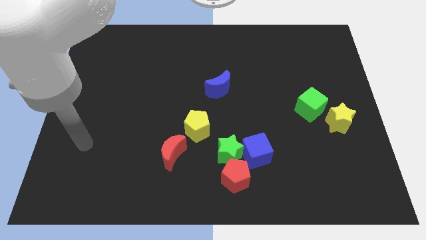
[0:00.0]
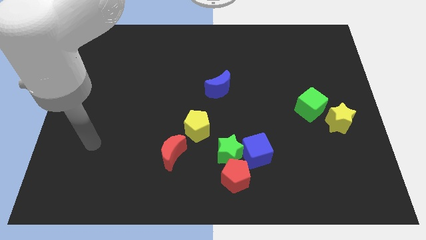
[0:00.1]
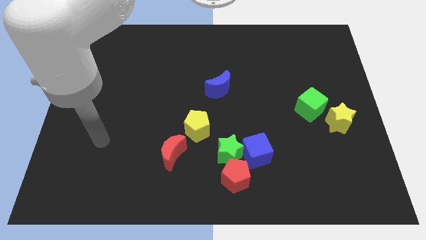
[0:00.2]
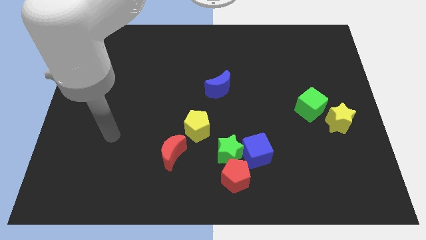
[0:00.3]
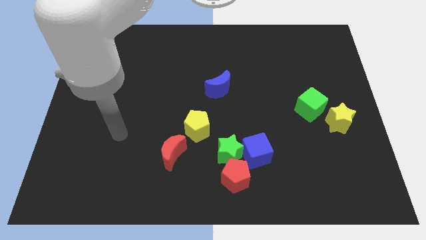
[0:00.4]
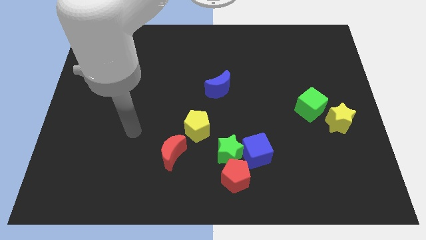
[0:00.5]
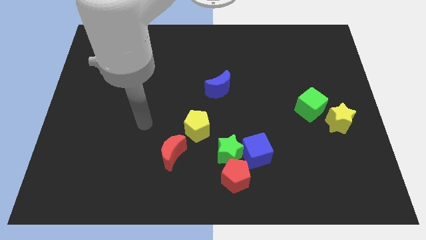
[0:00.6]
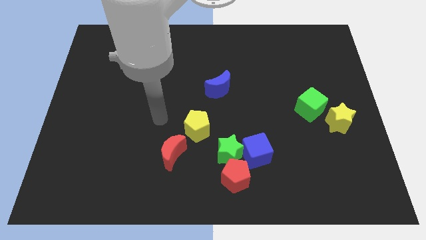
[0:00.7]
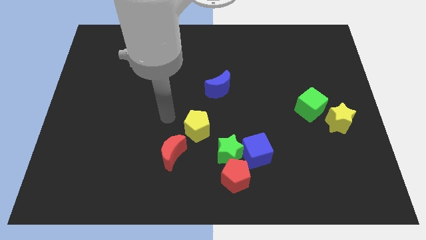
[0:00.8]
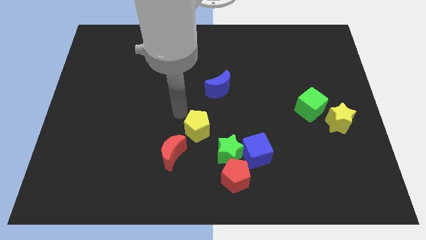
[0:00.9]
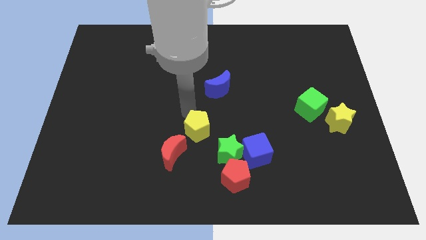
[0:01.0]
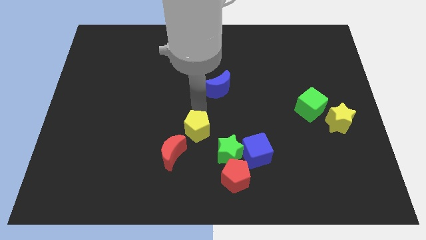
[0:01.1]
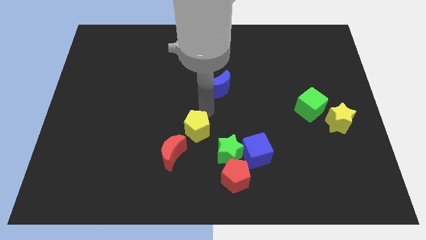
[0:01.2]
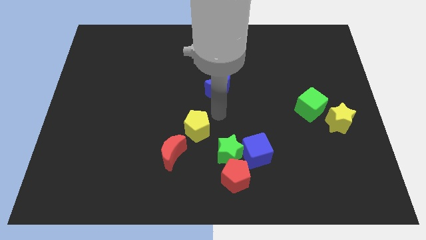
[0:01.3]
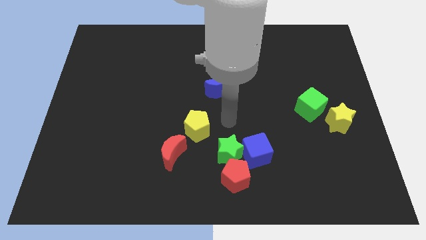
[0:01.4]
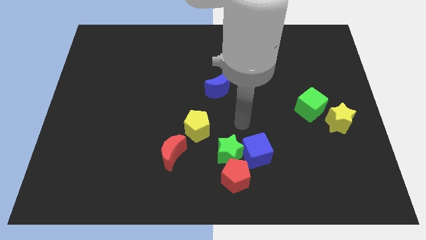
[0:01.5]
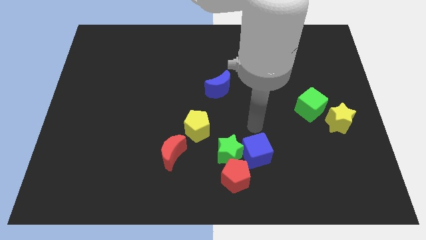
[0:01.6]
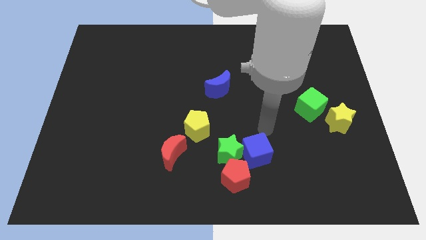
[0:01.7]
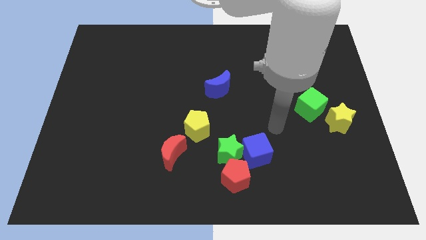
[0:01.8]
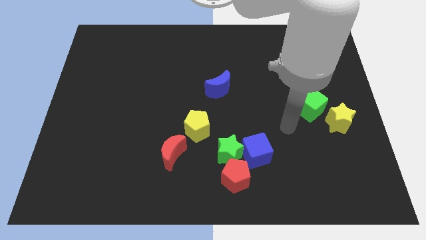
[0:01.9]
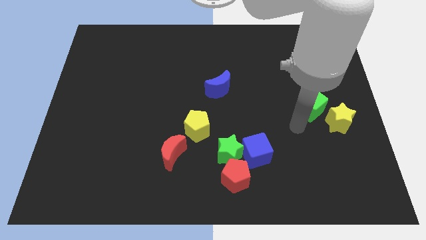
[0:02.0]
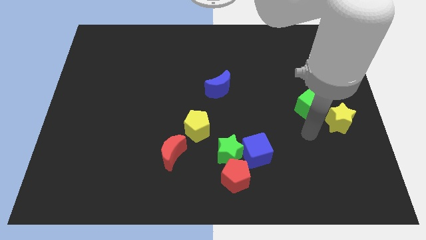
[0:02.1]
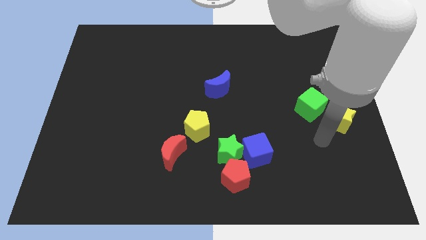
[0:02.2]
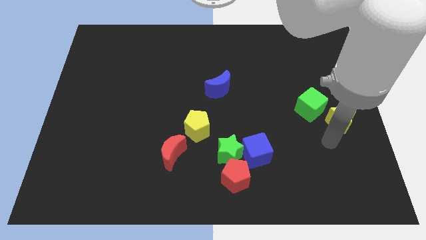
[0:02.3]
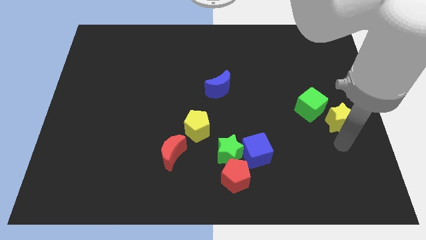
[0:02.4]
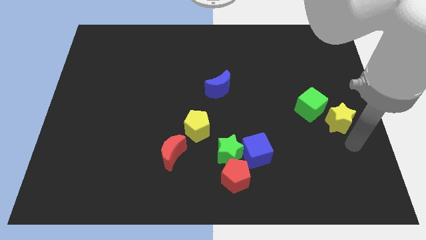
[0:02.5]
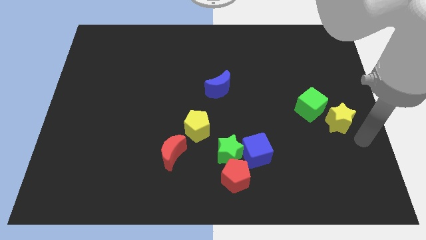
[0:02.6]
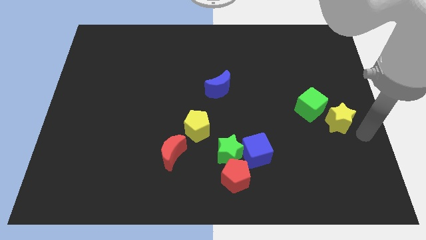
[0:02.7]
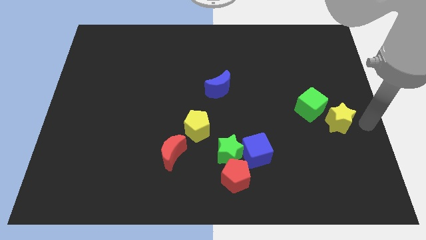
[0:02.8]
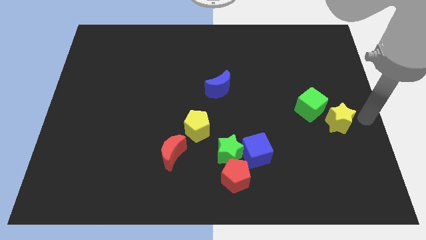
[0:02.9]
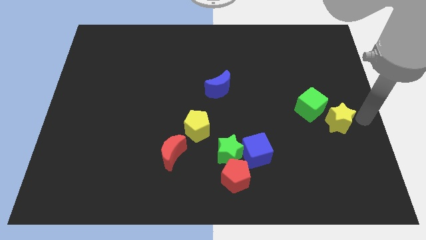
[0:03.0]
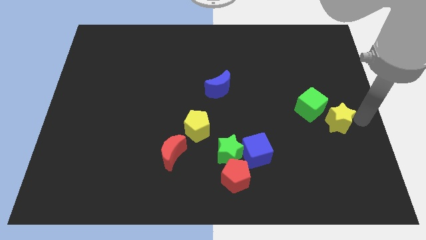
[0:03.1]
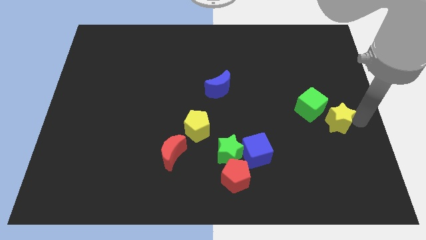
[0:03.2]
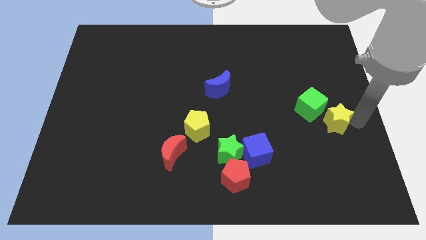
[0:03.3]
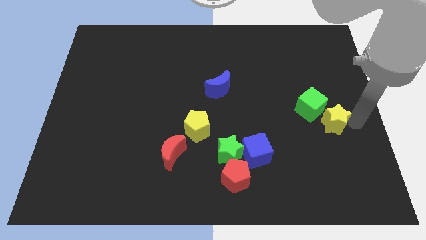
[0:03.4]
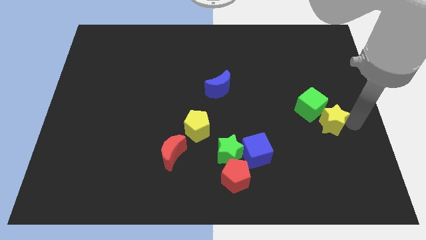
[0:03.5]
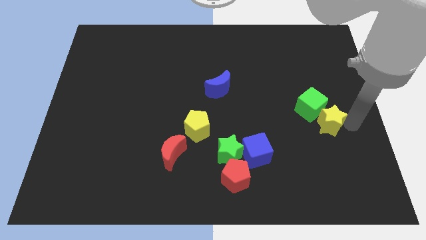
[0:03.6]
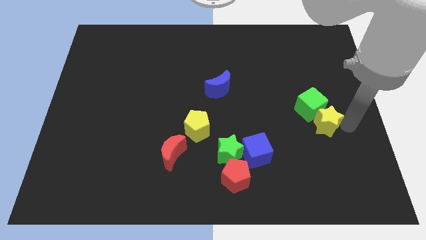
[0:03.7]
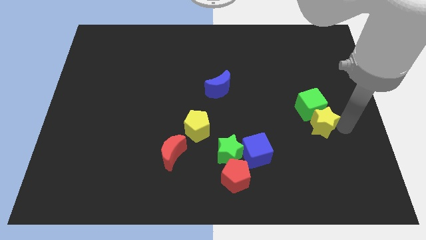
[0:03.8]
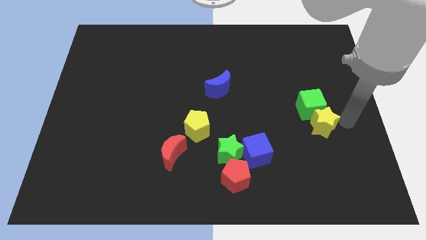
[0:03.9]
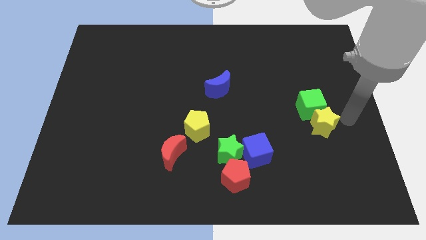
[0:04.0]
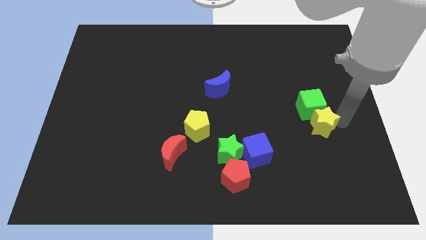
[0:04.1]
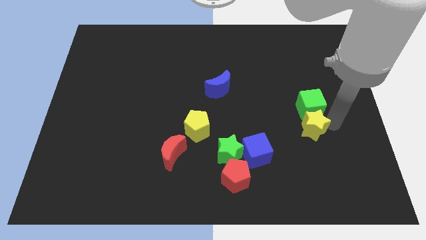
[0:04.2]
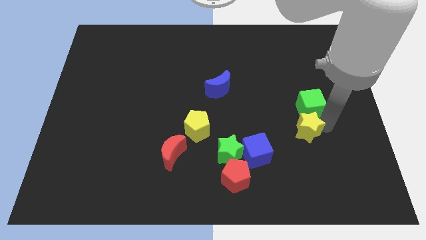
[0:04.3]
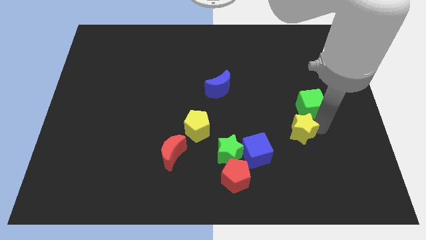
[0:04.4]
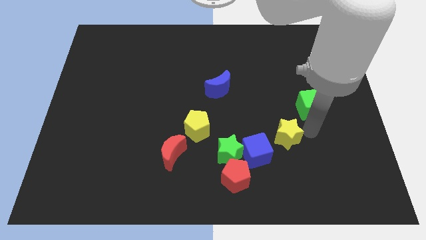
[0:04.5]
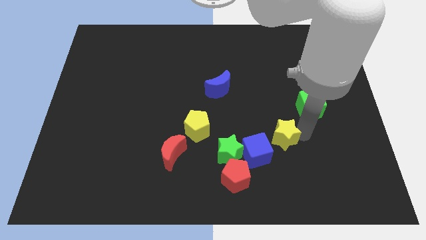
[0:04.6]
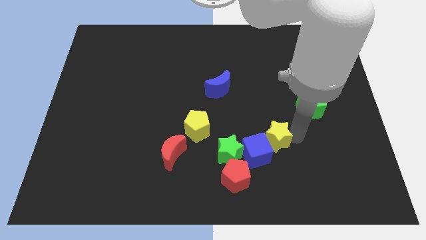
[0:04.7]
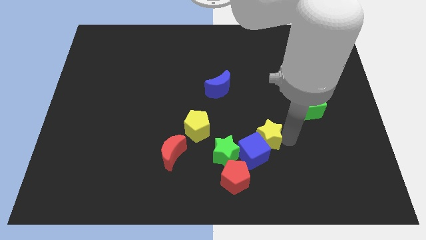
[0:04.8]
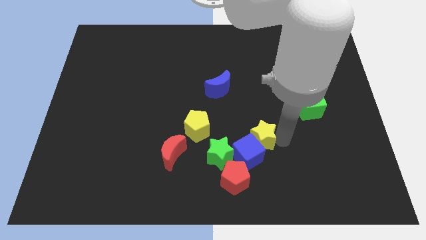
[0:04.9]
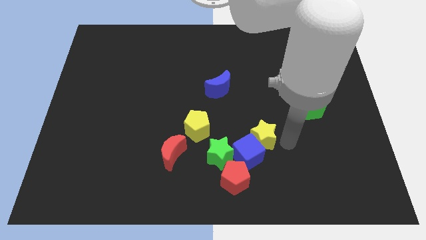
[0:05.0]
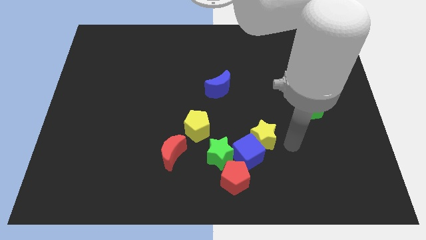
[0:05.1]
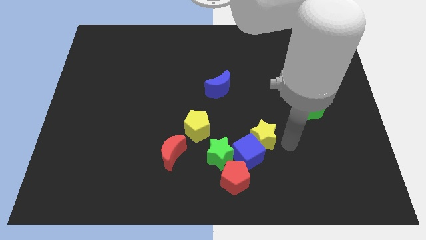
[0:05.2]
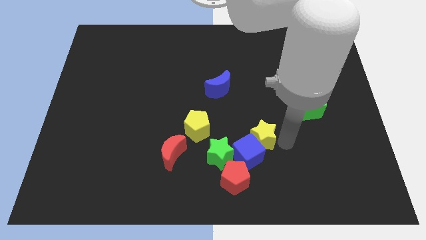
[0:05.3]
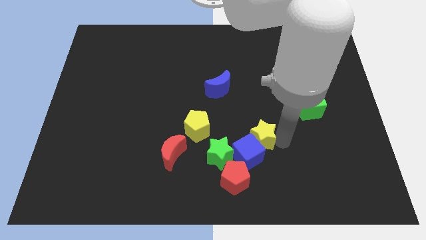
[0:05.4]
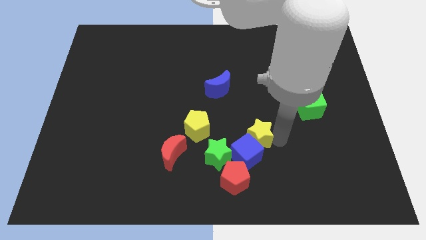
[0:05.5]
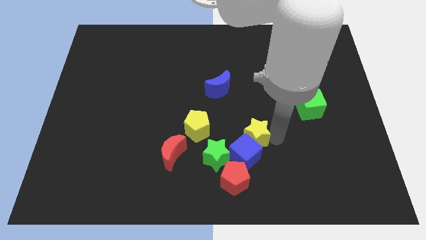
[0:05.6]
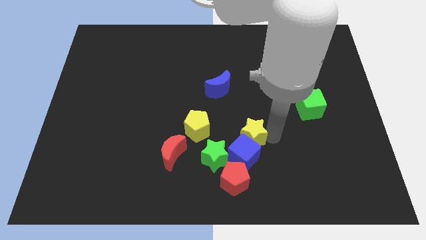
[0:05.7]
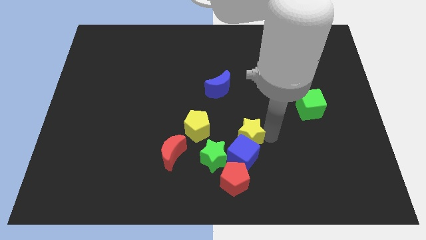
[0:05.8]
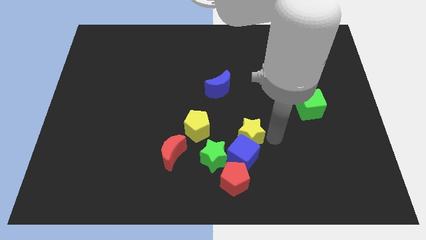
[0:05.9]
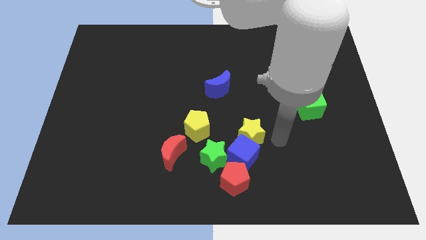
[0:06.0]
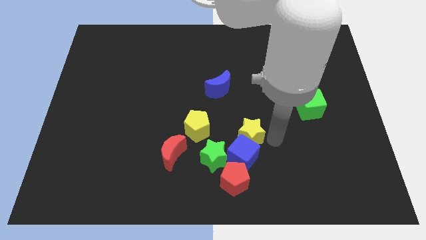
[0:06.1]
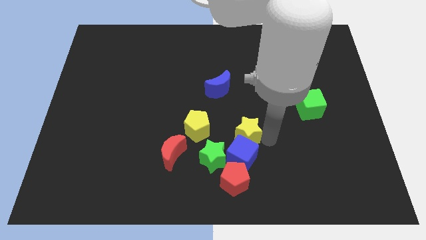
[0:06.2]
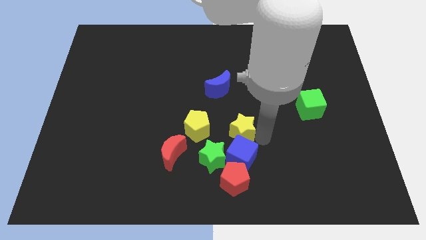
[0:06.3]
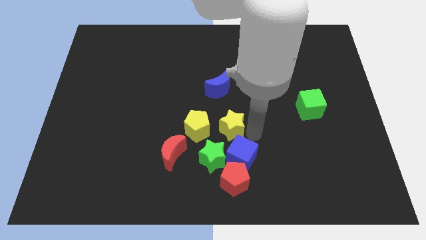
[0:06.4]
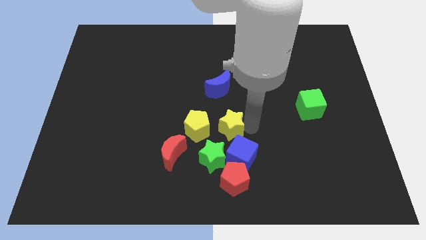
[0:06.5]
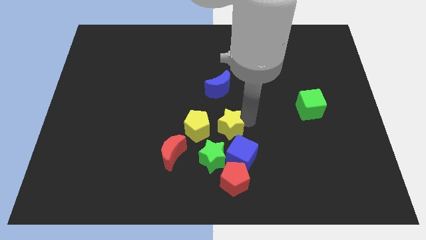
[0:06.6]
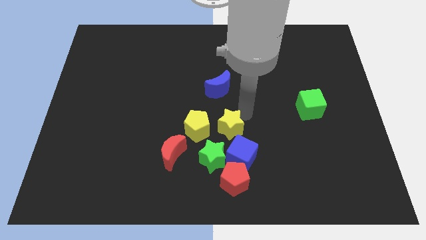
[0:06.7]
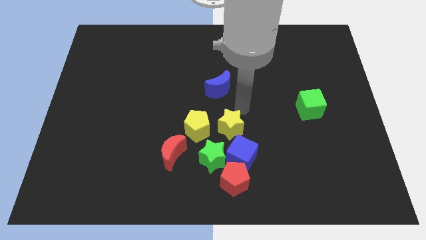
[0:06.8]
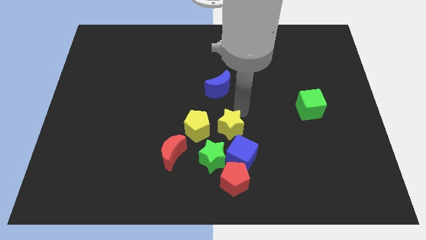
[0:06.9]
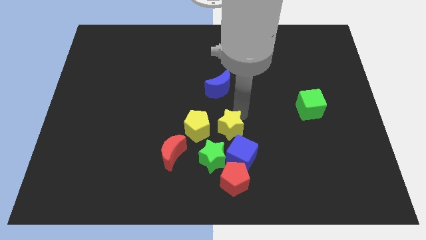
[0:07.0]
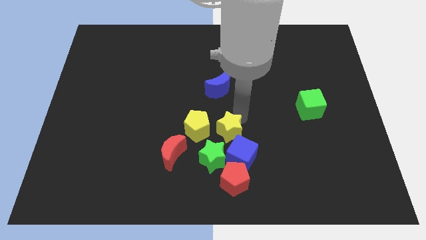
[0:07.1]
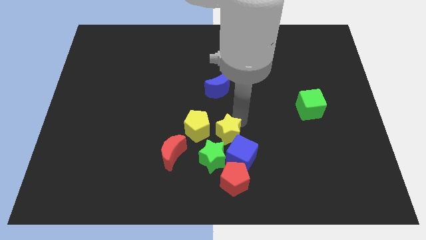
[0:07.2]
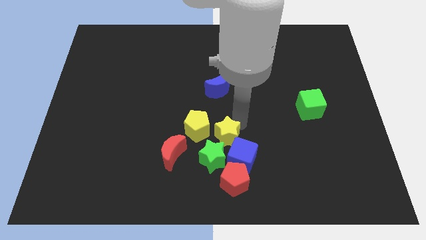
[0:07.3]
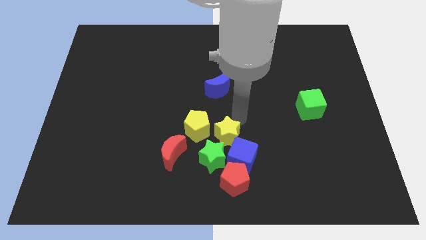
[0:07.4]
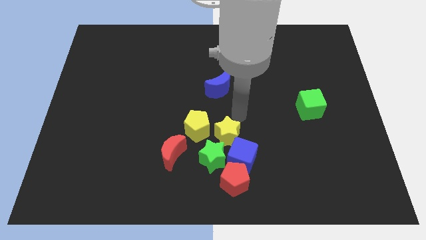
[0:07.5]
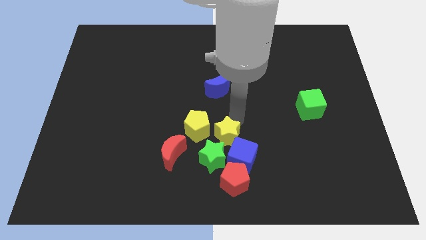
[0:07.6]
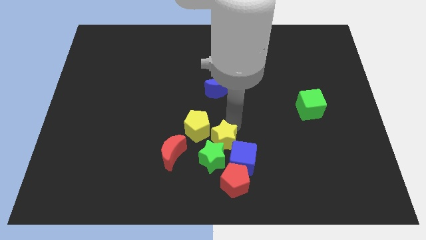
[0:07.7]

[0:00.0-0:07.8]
put the yellow star towards the green star
